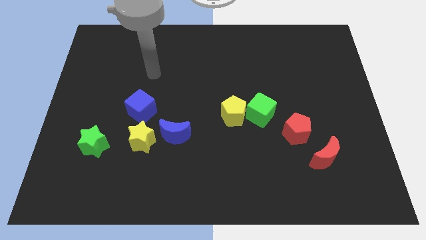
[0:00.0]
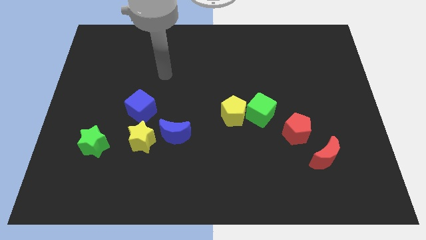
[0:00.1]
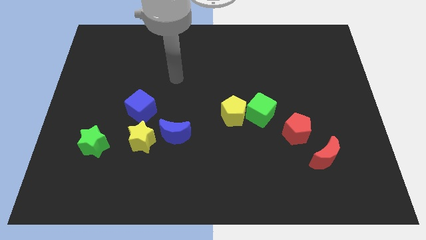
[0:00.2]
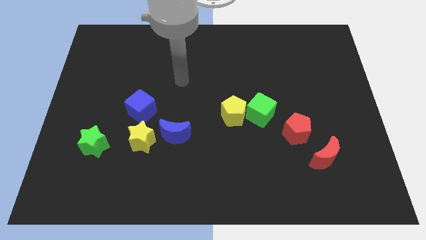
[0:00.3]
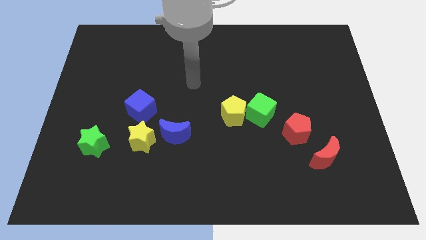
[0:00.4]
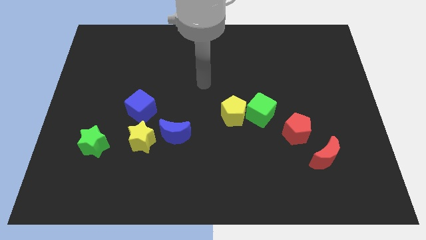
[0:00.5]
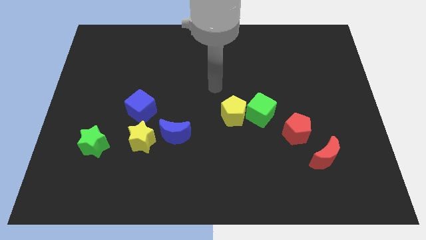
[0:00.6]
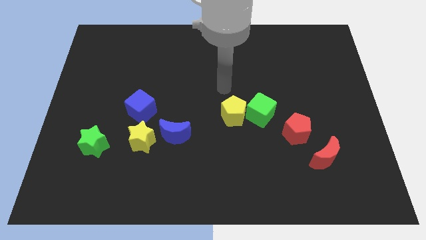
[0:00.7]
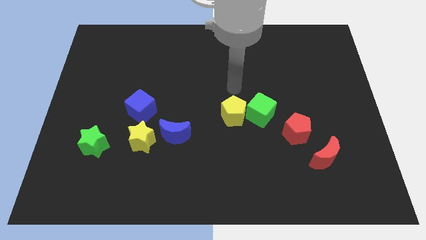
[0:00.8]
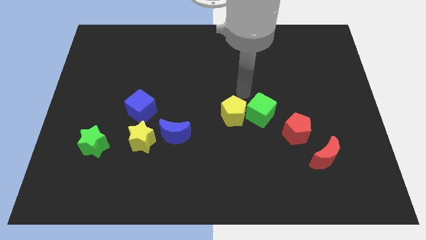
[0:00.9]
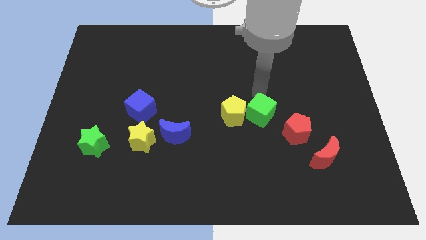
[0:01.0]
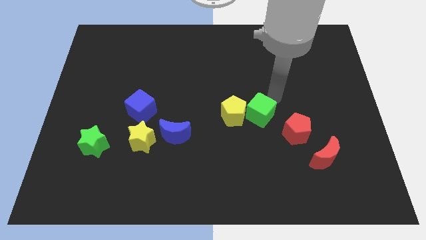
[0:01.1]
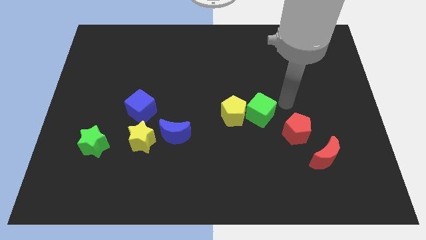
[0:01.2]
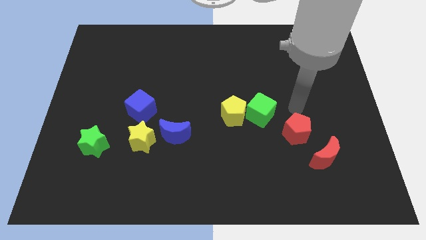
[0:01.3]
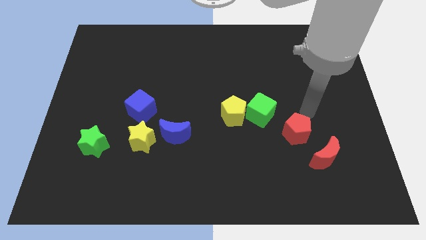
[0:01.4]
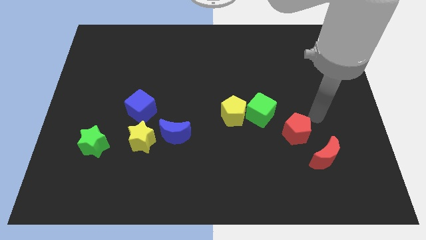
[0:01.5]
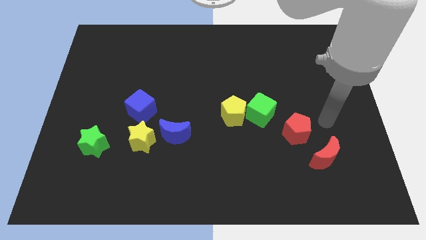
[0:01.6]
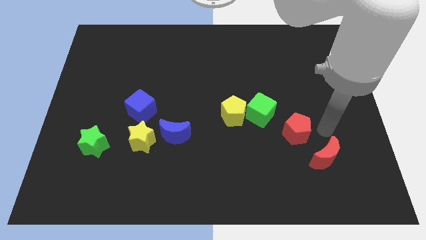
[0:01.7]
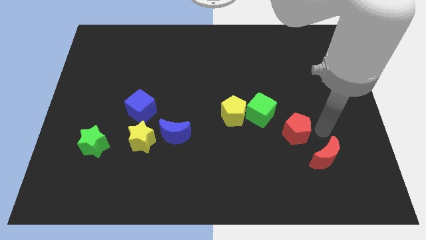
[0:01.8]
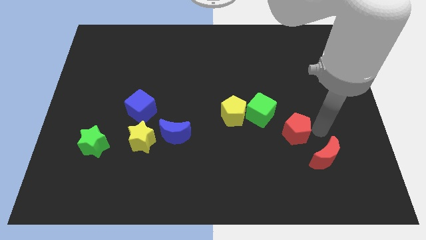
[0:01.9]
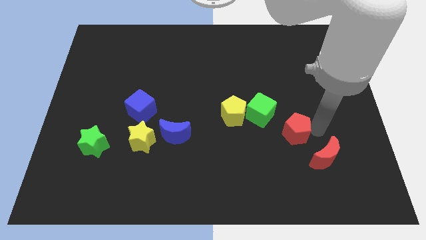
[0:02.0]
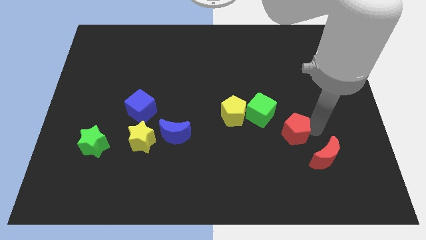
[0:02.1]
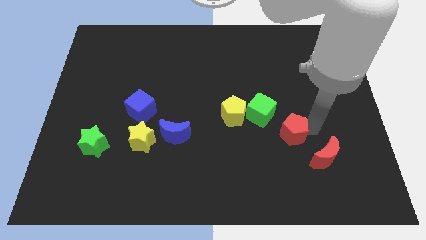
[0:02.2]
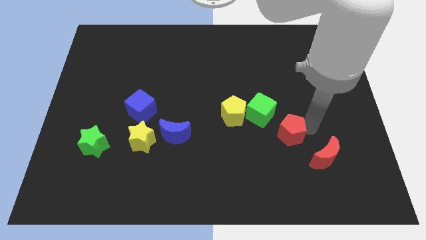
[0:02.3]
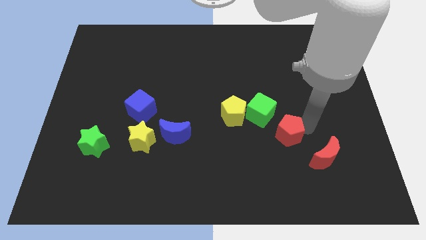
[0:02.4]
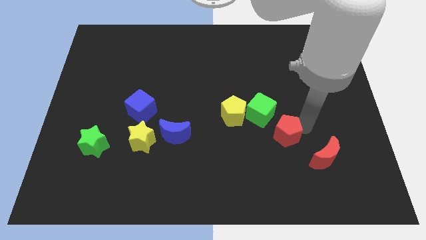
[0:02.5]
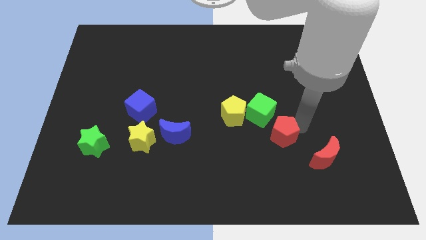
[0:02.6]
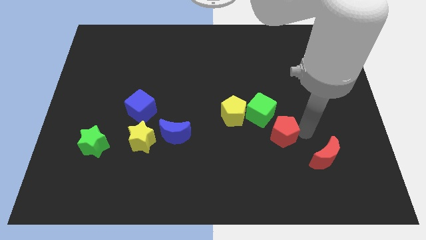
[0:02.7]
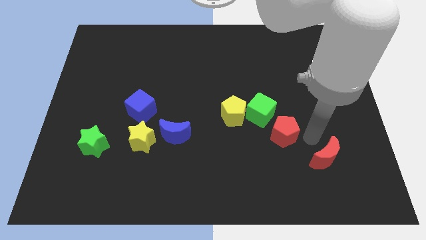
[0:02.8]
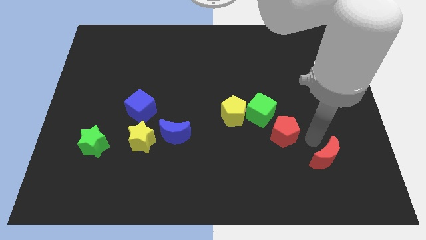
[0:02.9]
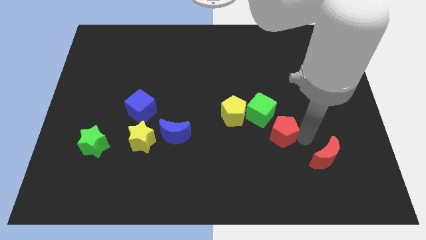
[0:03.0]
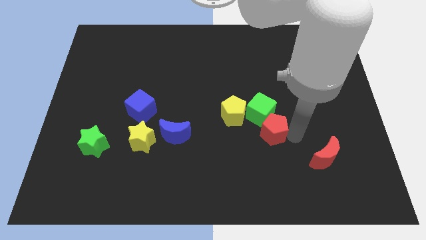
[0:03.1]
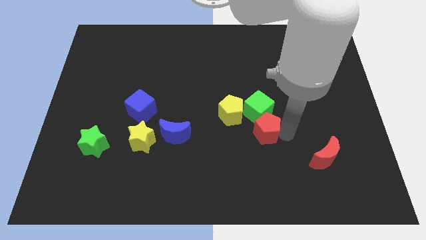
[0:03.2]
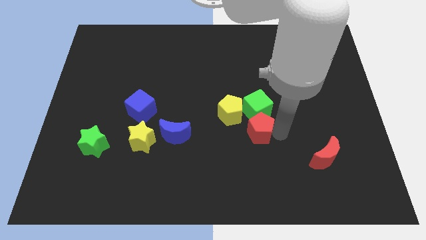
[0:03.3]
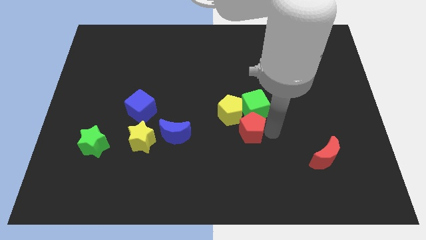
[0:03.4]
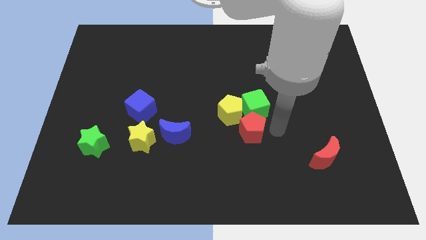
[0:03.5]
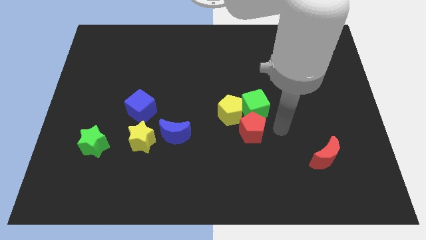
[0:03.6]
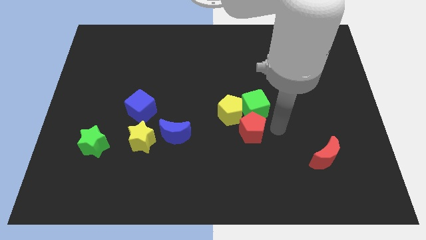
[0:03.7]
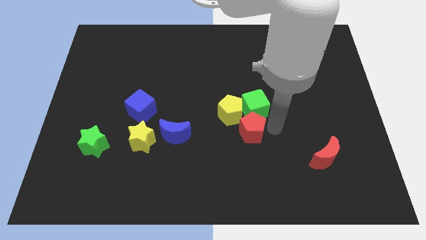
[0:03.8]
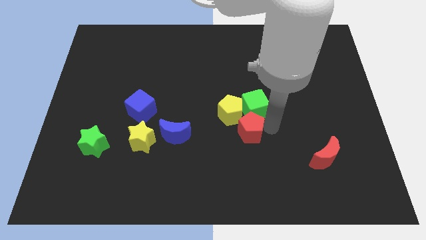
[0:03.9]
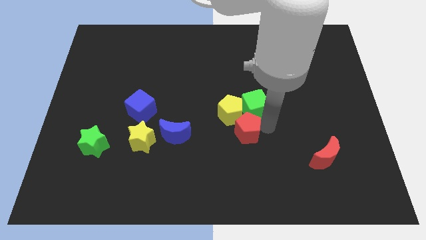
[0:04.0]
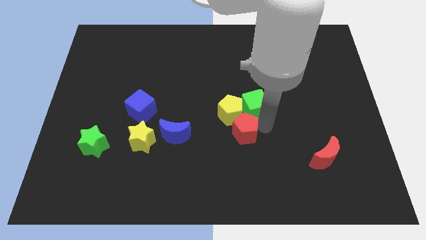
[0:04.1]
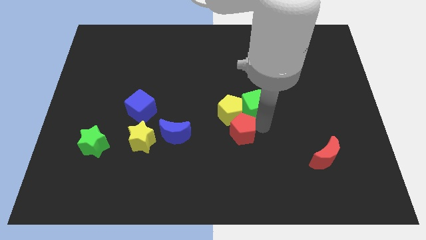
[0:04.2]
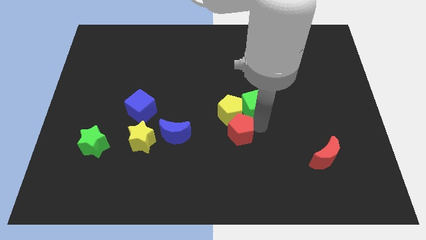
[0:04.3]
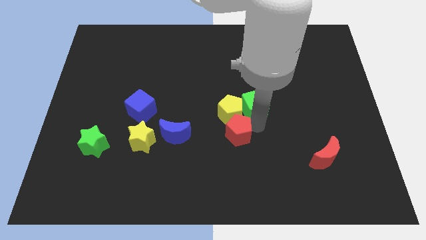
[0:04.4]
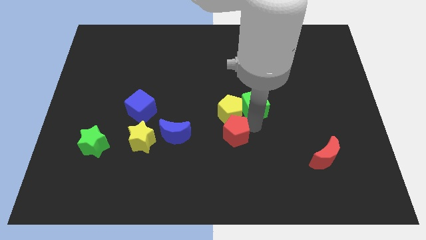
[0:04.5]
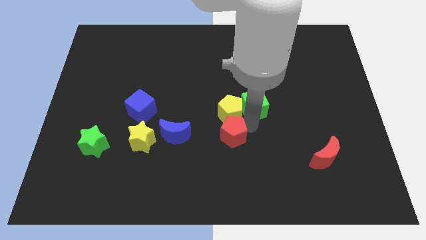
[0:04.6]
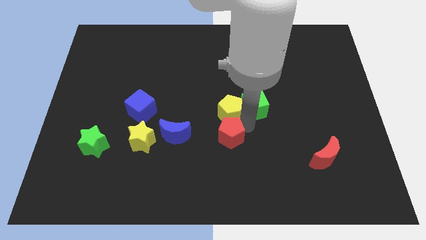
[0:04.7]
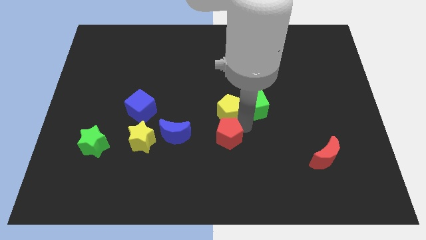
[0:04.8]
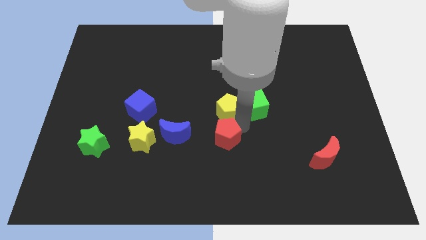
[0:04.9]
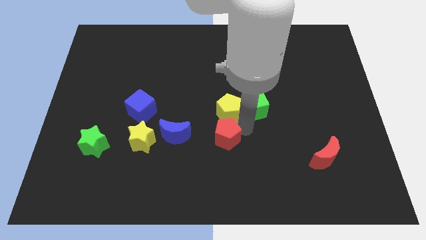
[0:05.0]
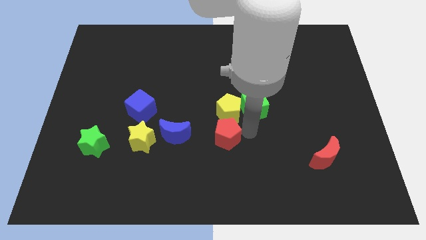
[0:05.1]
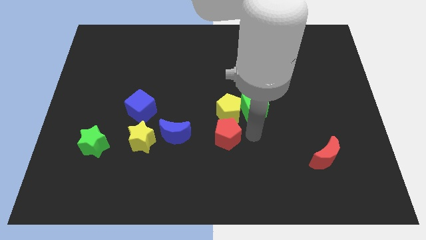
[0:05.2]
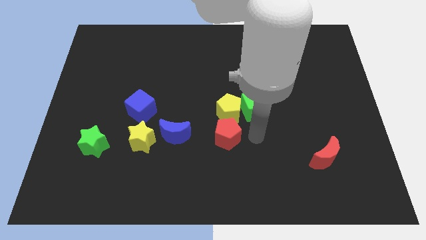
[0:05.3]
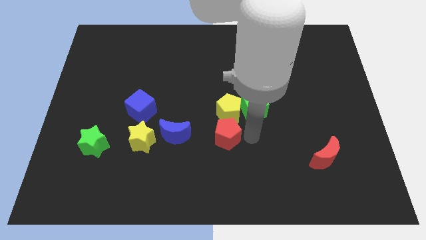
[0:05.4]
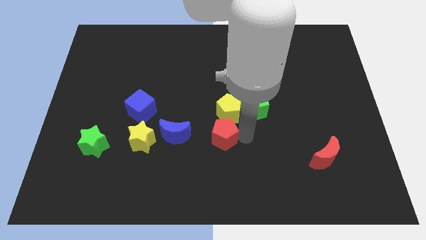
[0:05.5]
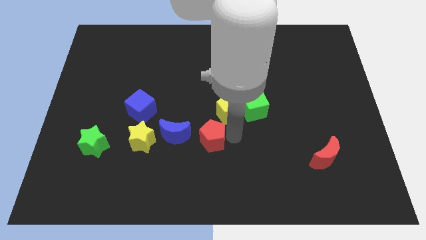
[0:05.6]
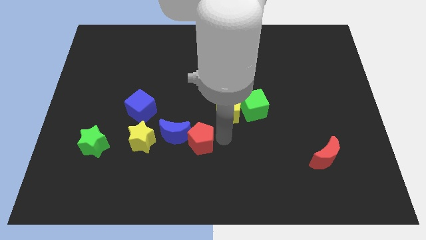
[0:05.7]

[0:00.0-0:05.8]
push the red pentagon towards the blue moon

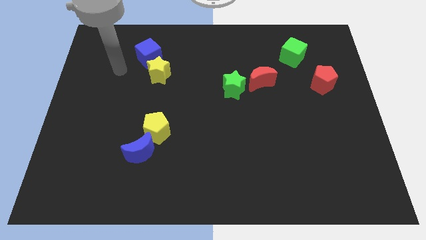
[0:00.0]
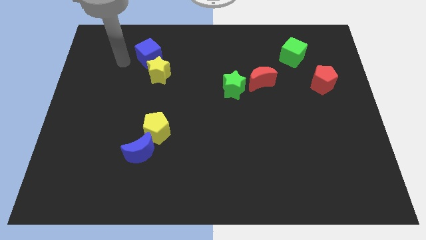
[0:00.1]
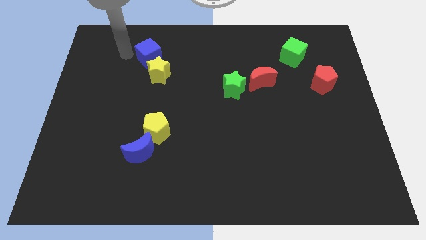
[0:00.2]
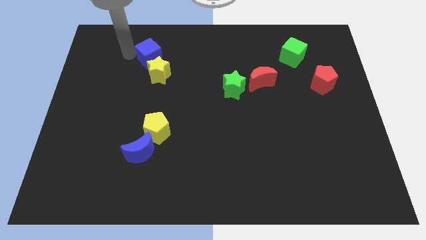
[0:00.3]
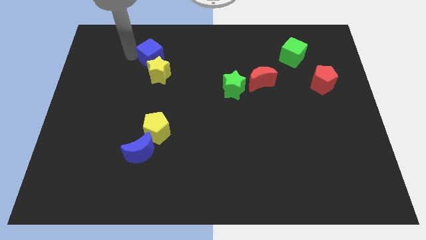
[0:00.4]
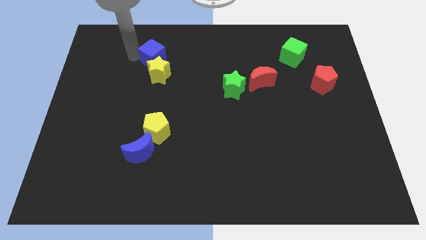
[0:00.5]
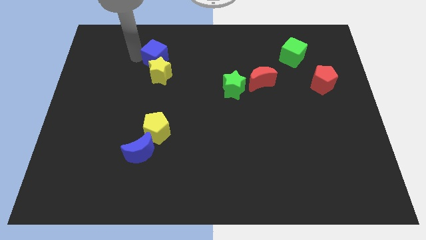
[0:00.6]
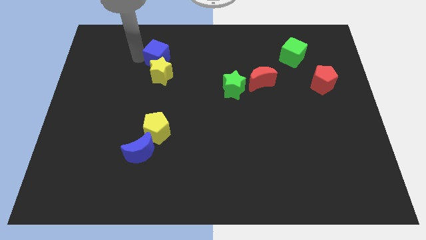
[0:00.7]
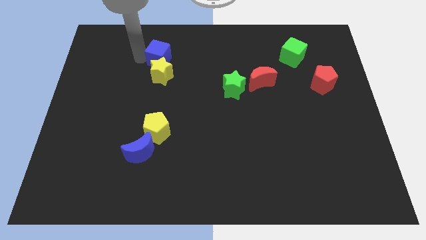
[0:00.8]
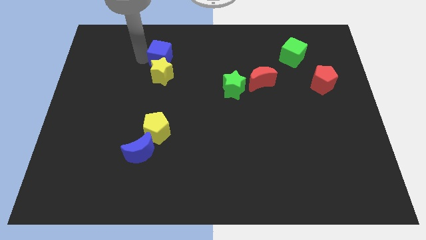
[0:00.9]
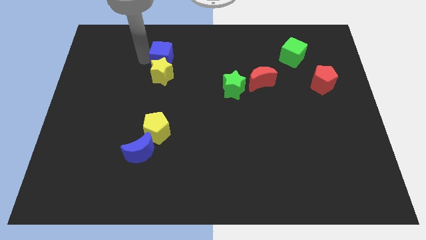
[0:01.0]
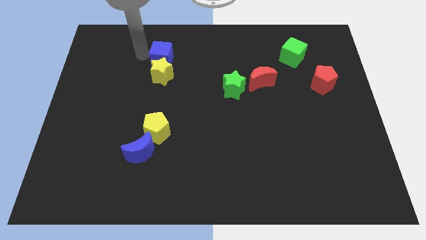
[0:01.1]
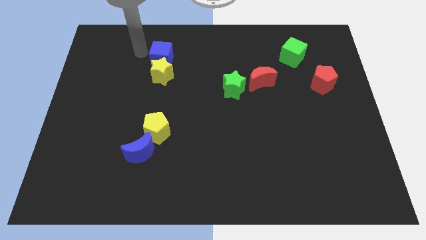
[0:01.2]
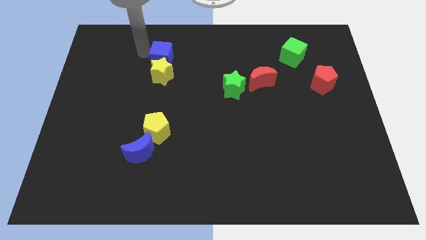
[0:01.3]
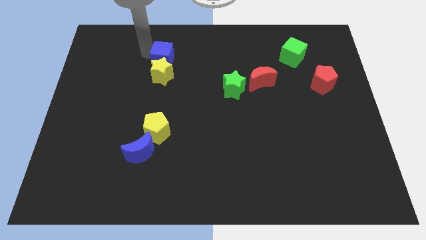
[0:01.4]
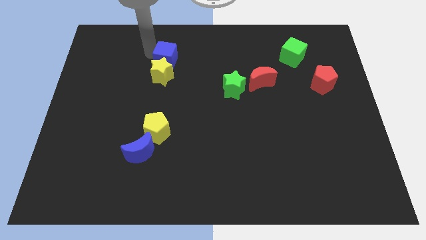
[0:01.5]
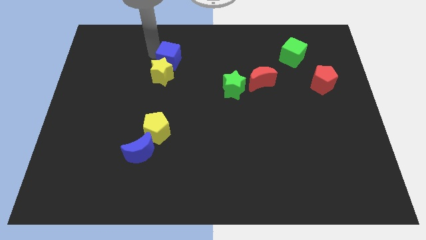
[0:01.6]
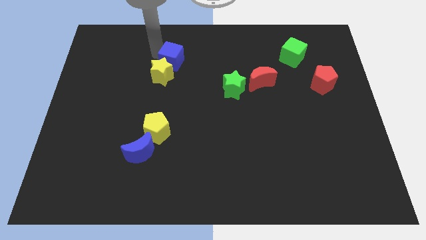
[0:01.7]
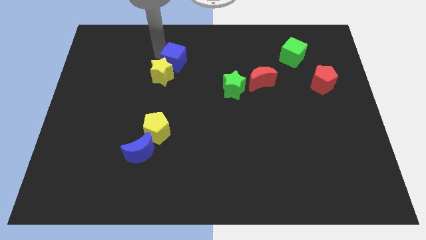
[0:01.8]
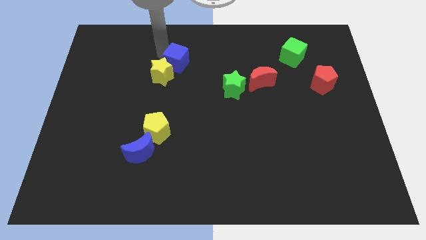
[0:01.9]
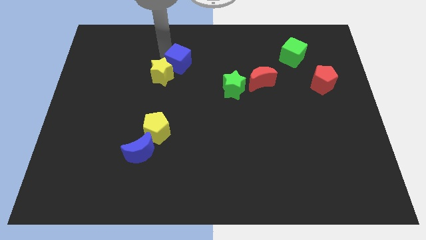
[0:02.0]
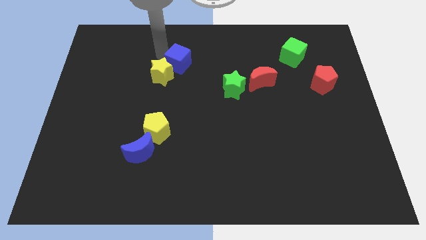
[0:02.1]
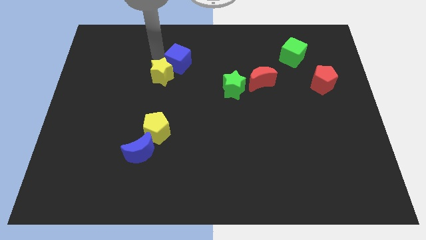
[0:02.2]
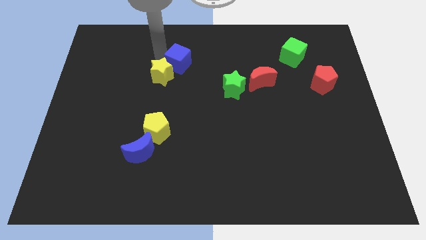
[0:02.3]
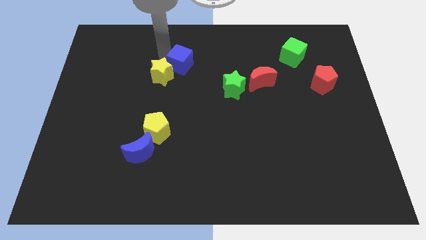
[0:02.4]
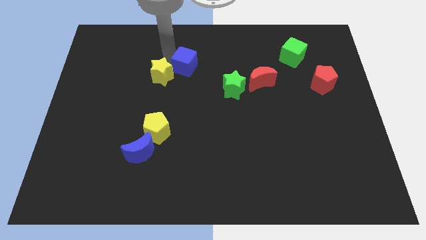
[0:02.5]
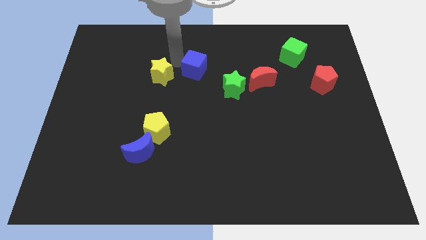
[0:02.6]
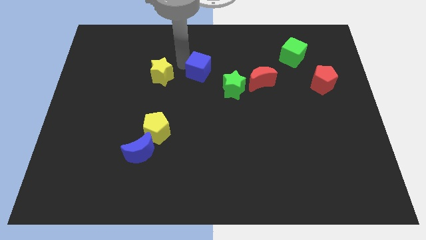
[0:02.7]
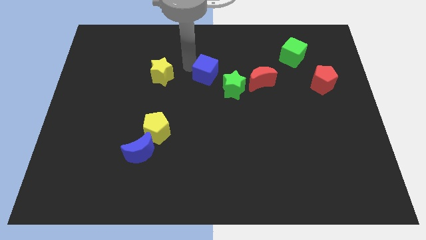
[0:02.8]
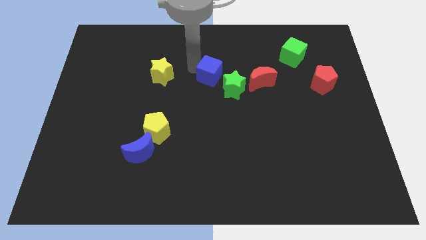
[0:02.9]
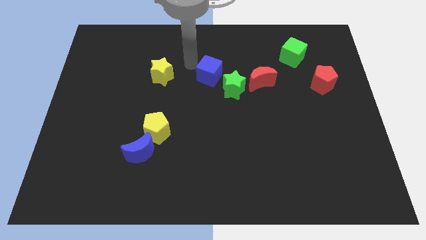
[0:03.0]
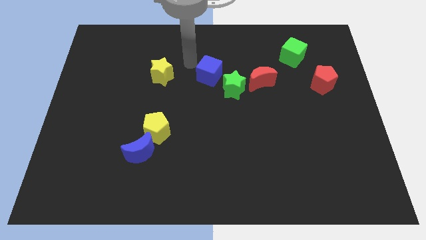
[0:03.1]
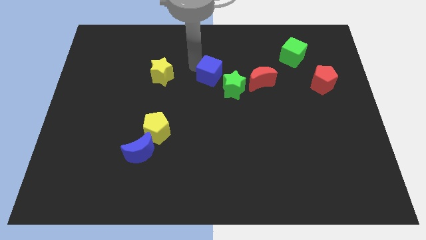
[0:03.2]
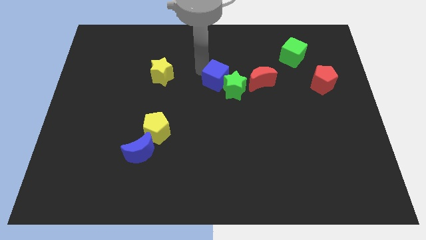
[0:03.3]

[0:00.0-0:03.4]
slide the blue cube next to the green star
